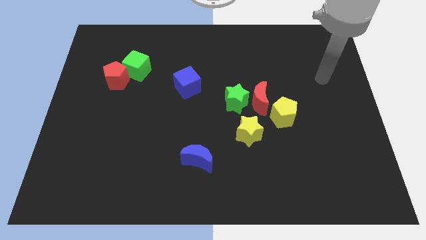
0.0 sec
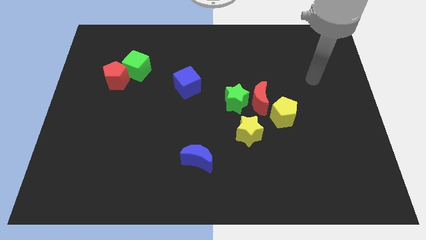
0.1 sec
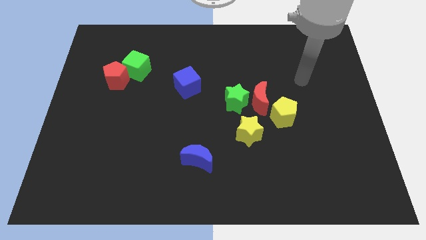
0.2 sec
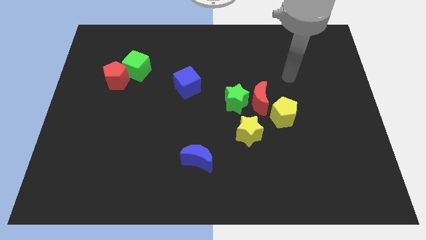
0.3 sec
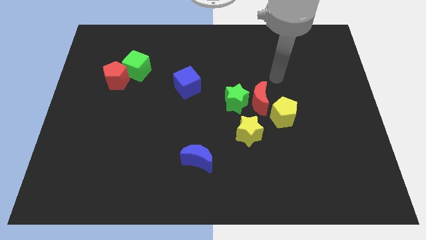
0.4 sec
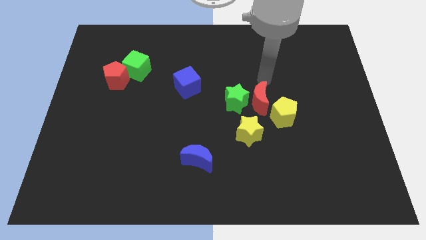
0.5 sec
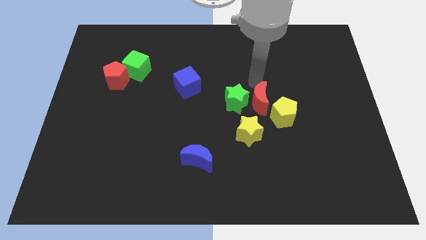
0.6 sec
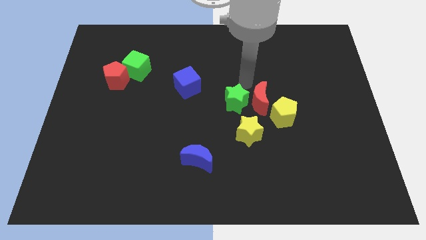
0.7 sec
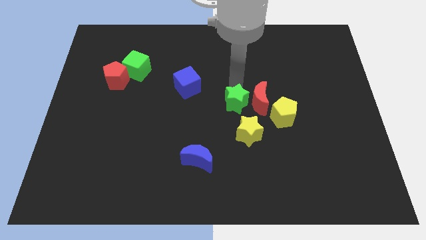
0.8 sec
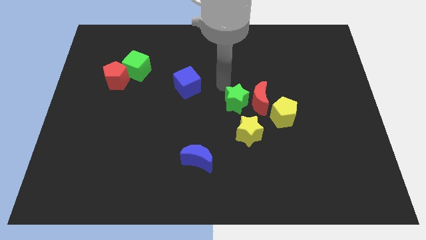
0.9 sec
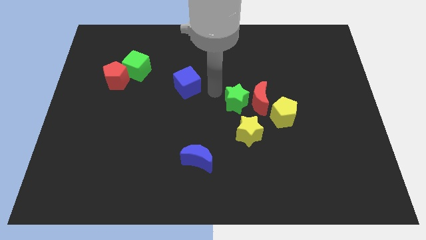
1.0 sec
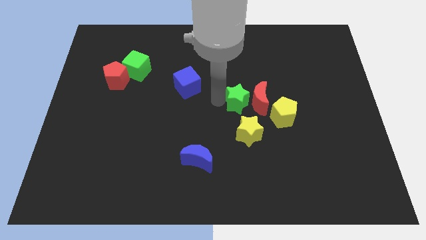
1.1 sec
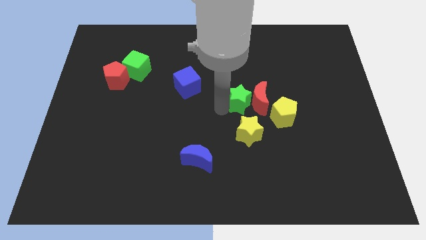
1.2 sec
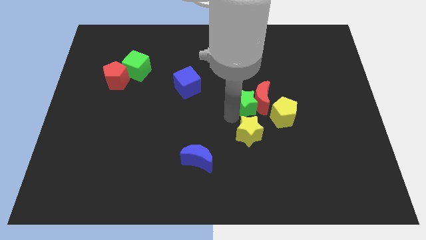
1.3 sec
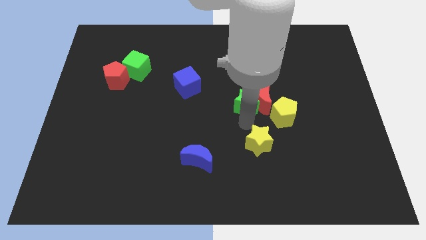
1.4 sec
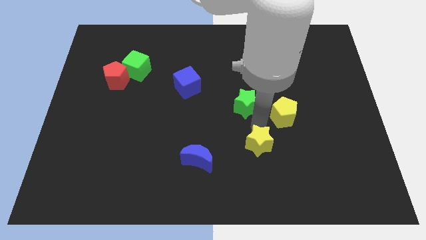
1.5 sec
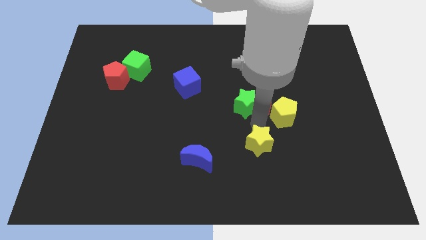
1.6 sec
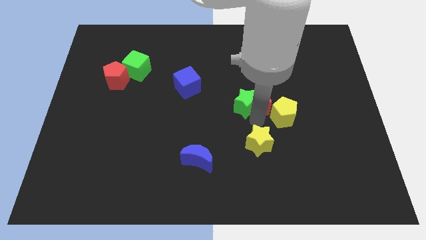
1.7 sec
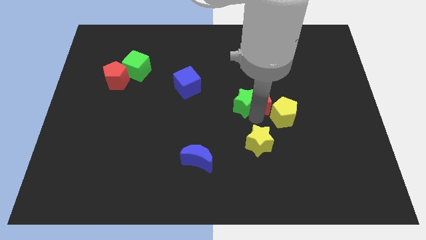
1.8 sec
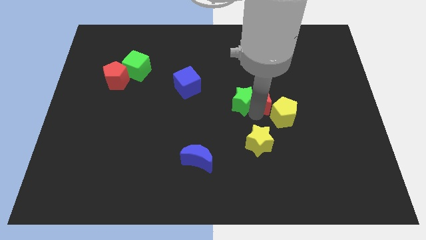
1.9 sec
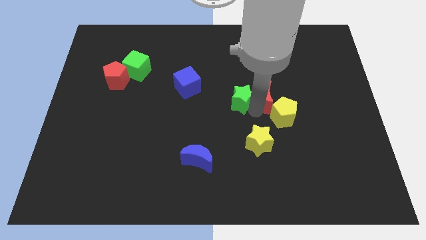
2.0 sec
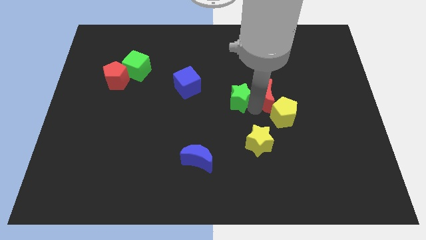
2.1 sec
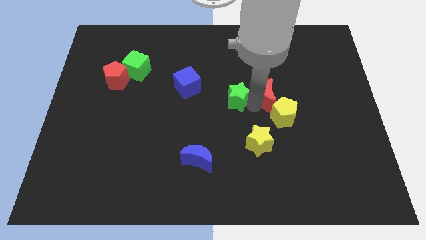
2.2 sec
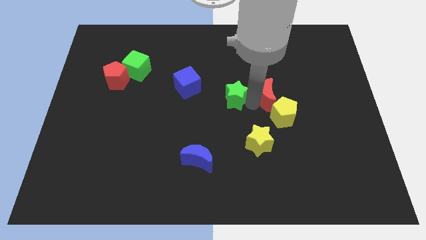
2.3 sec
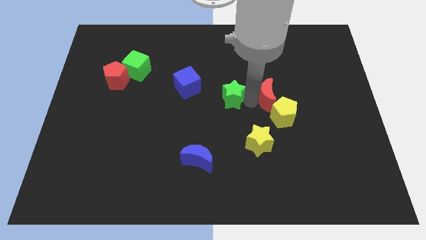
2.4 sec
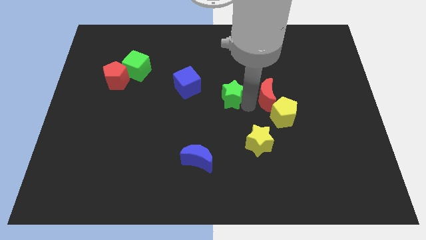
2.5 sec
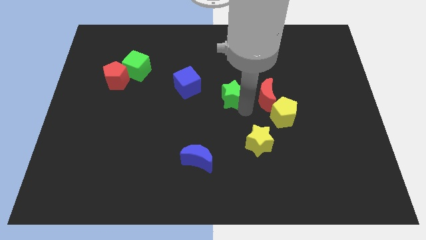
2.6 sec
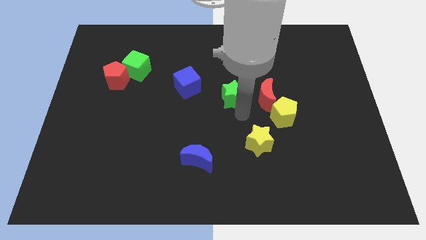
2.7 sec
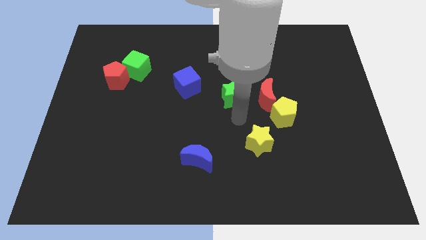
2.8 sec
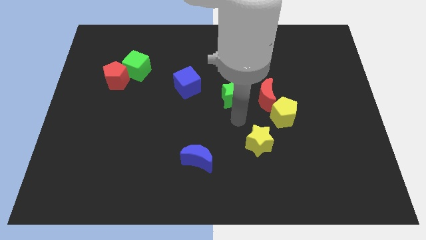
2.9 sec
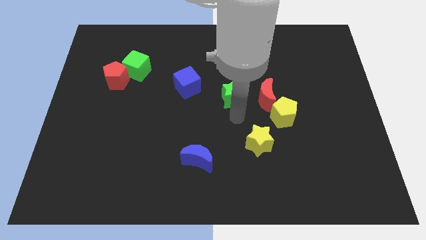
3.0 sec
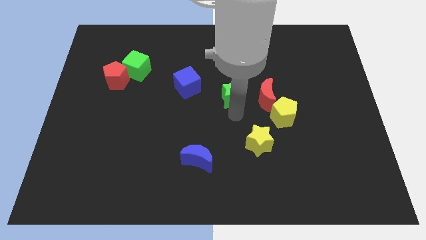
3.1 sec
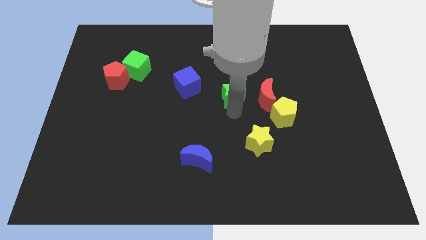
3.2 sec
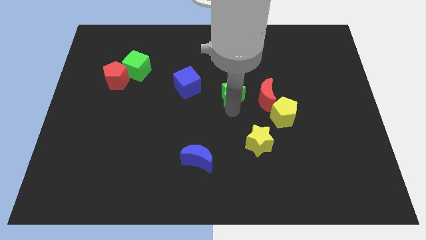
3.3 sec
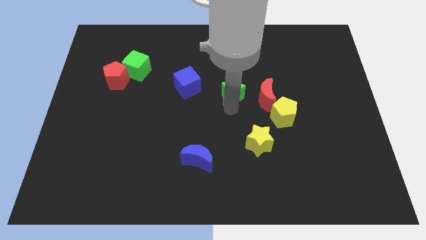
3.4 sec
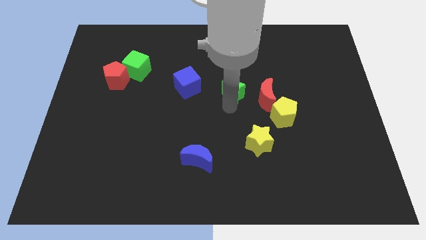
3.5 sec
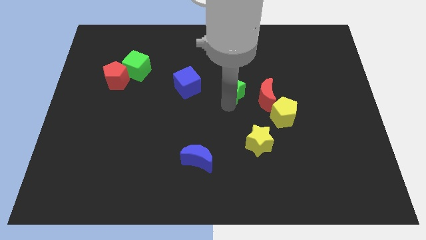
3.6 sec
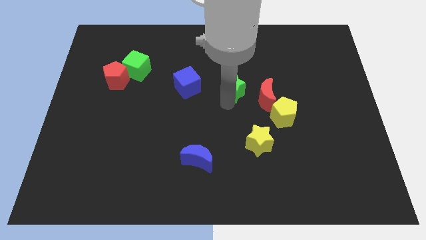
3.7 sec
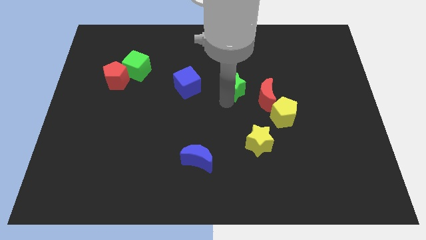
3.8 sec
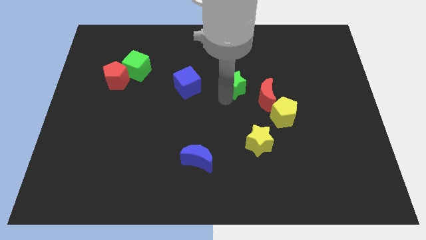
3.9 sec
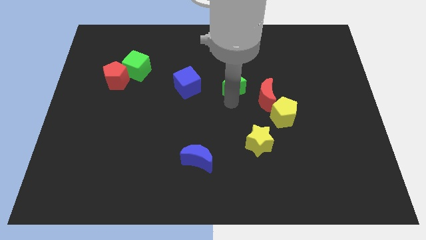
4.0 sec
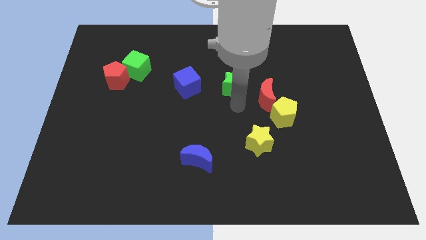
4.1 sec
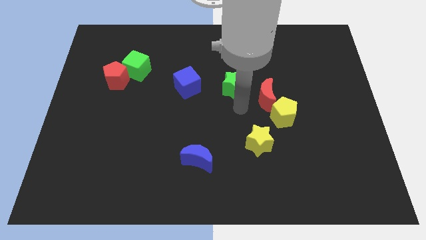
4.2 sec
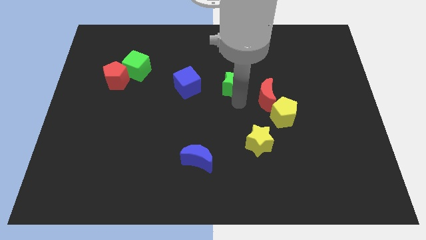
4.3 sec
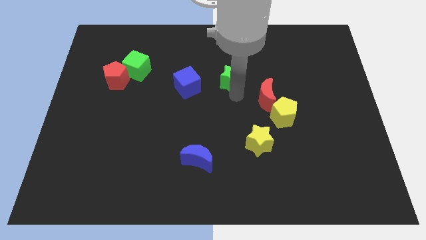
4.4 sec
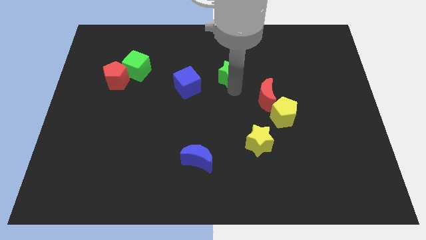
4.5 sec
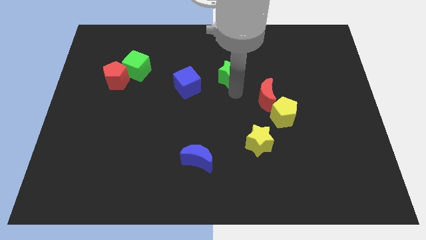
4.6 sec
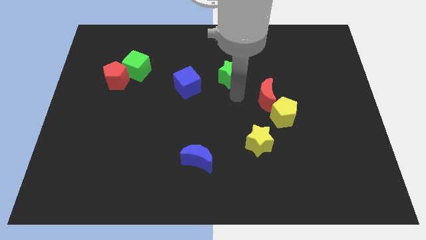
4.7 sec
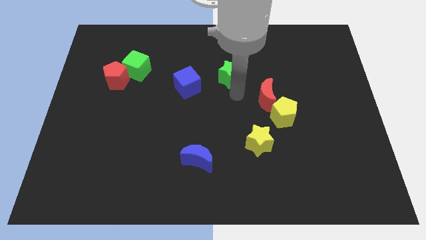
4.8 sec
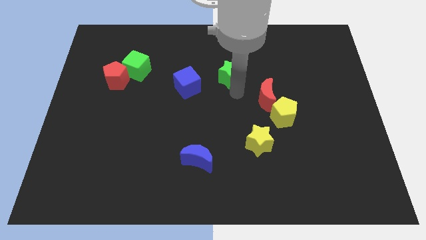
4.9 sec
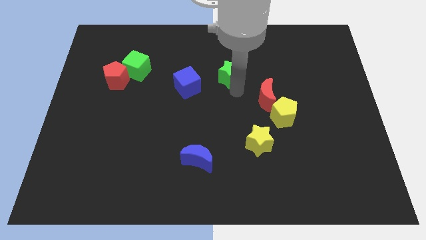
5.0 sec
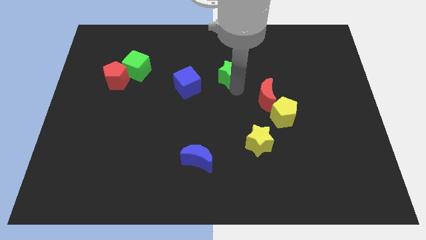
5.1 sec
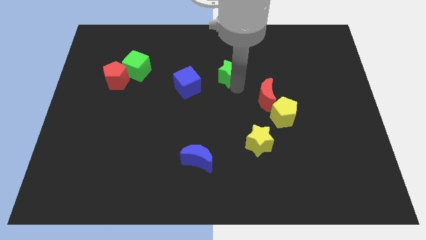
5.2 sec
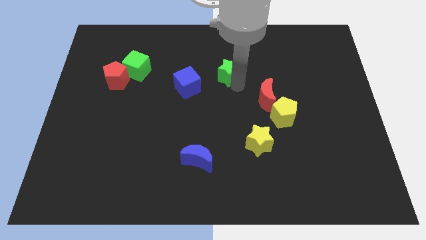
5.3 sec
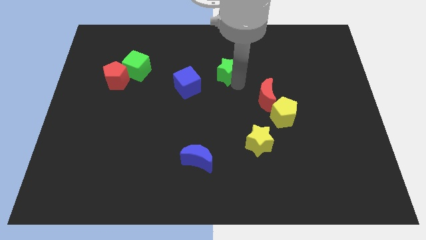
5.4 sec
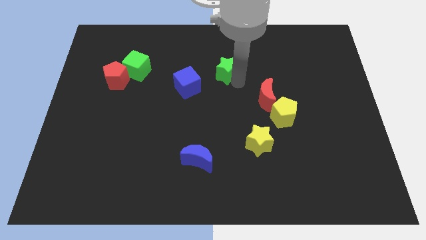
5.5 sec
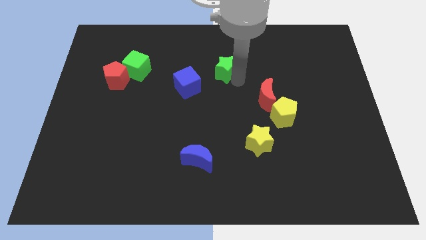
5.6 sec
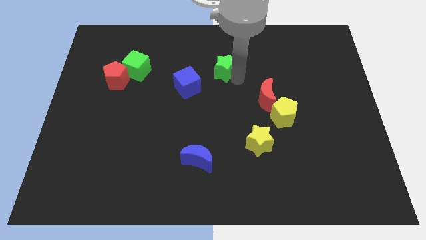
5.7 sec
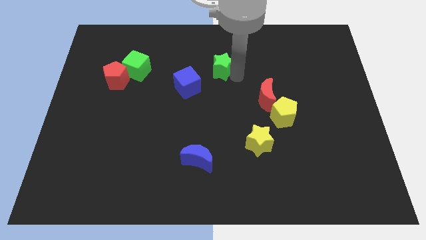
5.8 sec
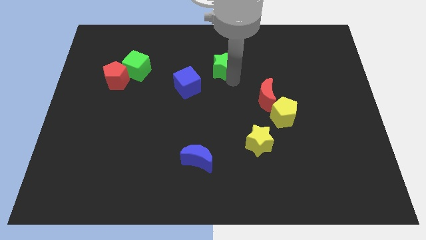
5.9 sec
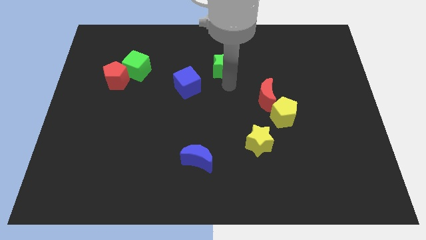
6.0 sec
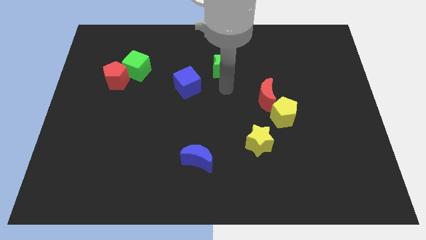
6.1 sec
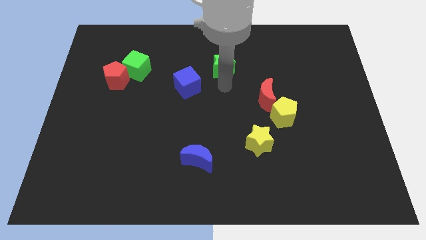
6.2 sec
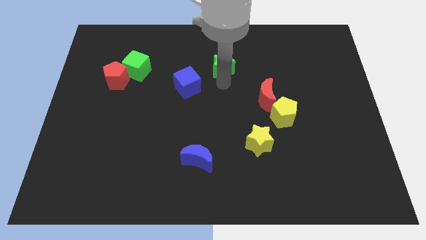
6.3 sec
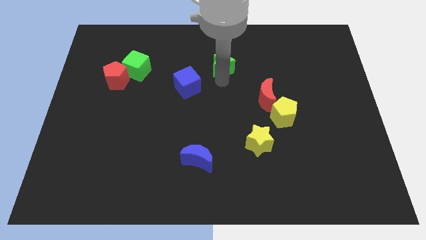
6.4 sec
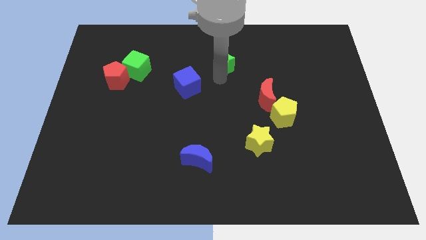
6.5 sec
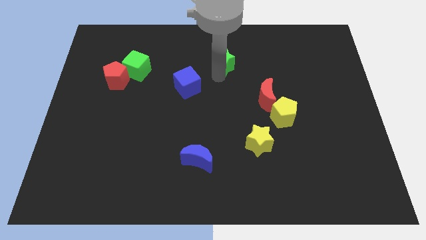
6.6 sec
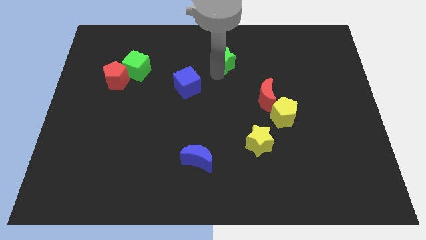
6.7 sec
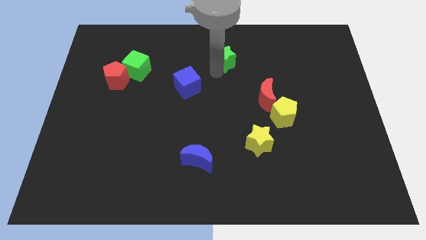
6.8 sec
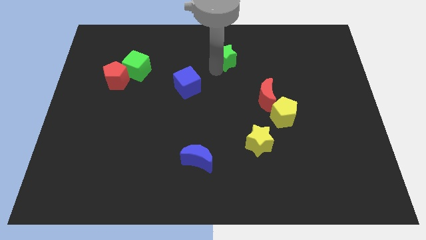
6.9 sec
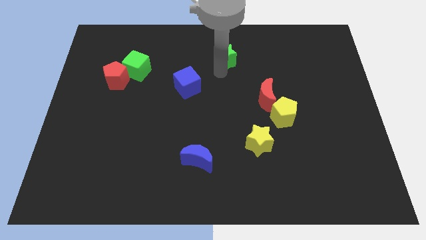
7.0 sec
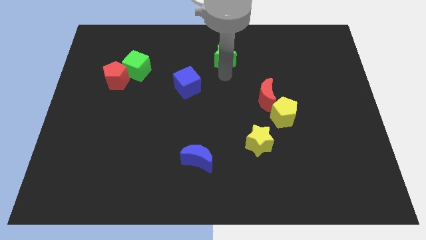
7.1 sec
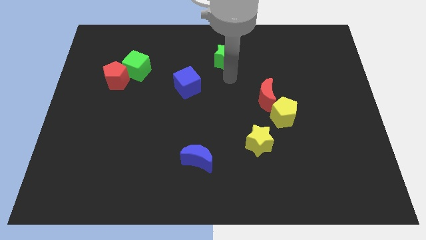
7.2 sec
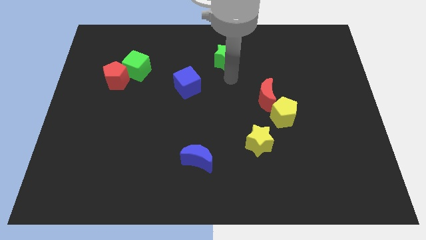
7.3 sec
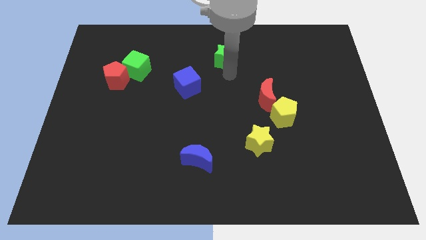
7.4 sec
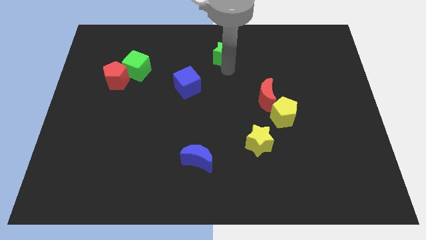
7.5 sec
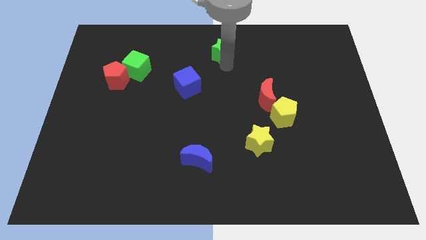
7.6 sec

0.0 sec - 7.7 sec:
slide the green star to the towards your base
